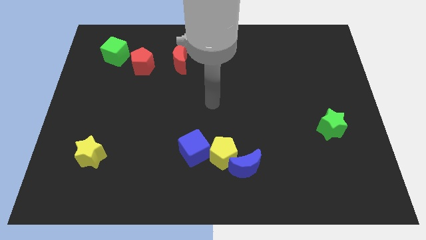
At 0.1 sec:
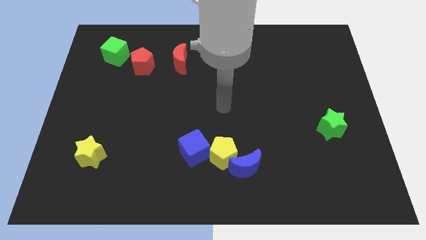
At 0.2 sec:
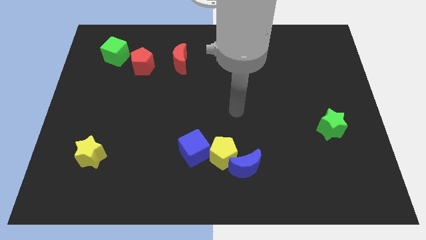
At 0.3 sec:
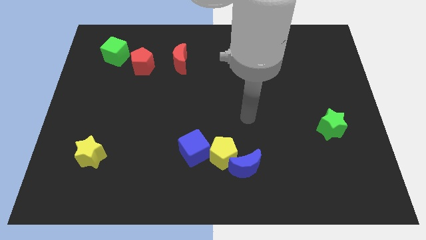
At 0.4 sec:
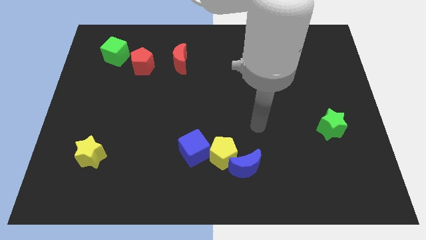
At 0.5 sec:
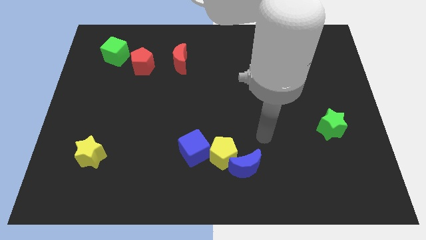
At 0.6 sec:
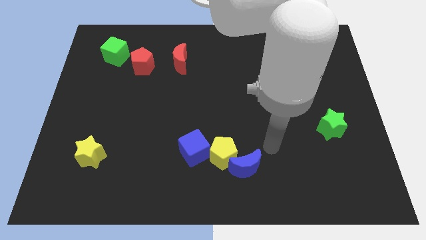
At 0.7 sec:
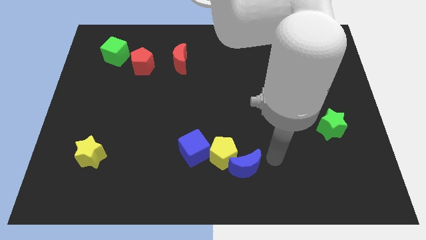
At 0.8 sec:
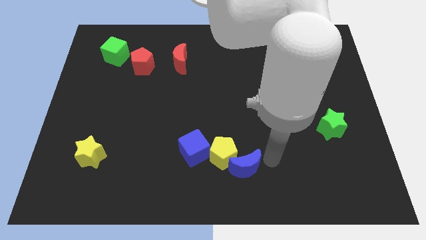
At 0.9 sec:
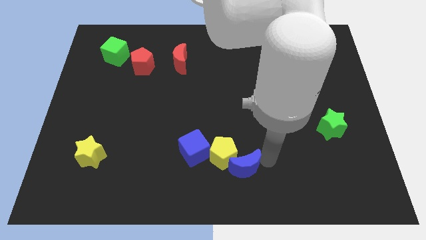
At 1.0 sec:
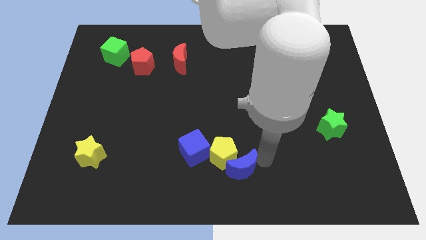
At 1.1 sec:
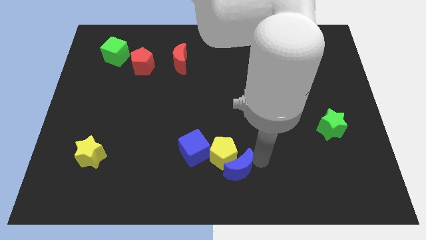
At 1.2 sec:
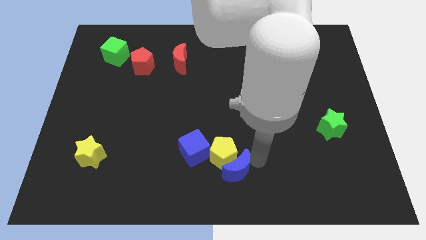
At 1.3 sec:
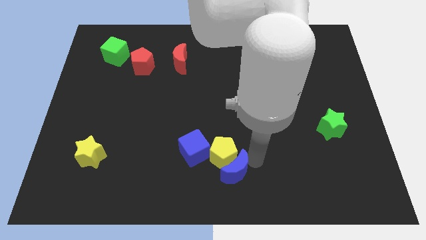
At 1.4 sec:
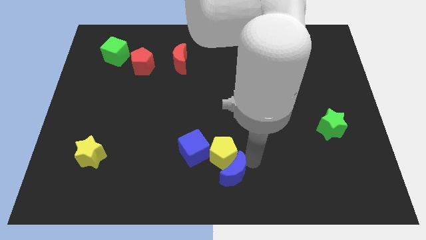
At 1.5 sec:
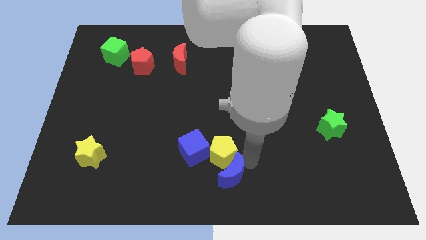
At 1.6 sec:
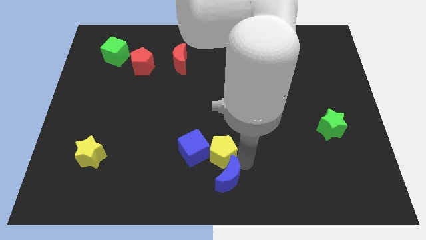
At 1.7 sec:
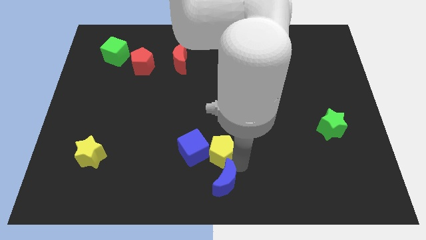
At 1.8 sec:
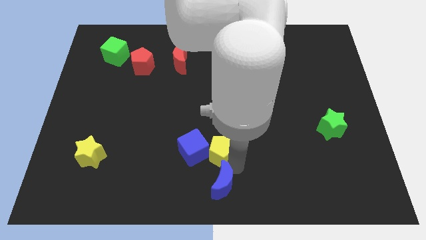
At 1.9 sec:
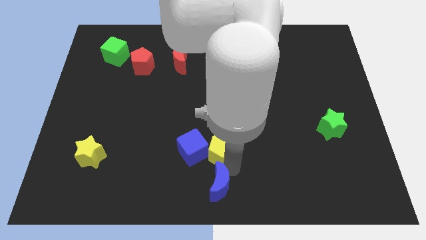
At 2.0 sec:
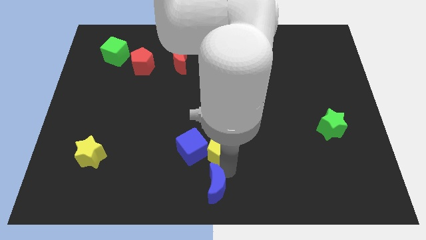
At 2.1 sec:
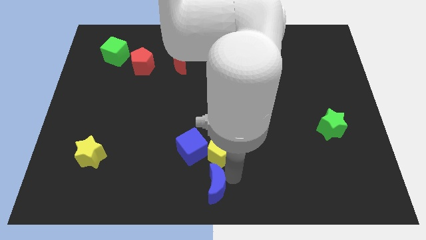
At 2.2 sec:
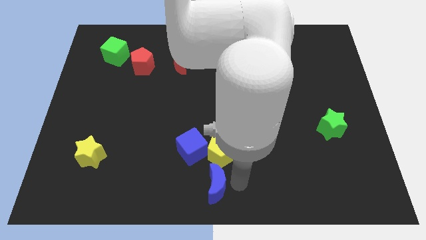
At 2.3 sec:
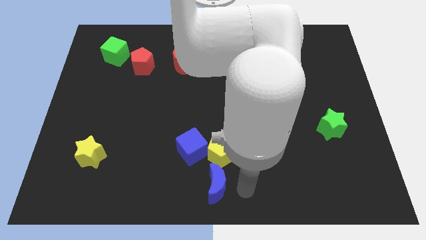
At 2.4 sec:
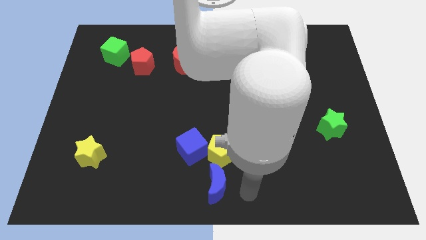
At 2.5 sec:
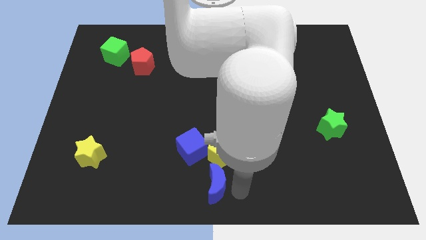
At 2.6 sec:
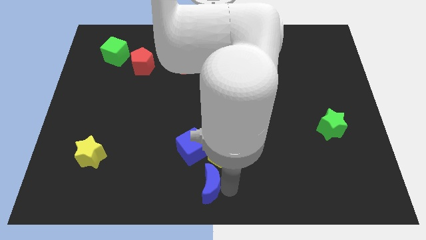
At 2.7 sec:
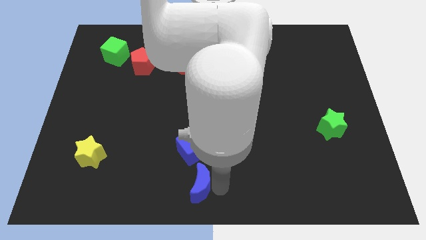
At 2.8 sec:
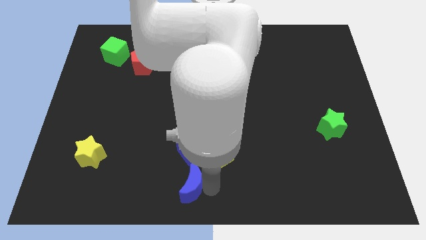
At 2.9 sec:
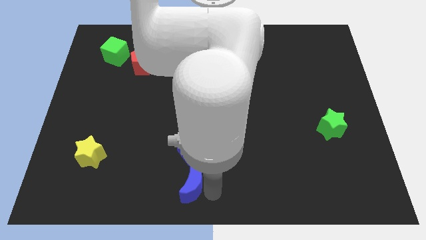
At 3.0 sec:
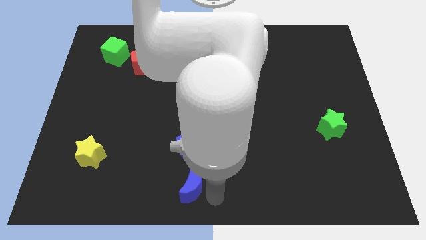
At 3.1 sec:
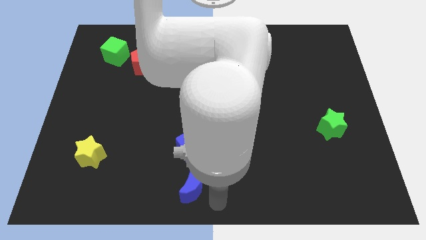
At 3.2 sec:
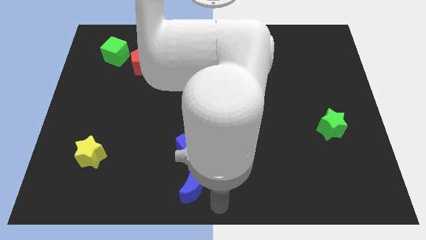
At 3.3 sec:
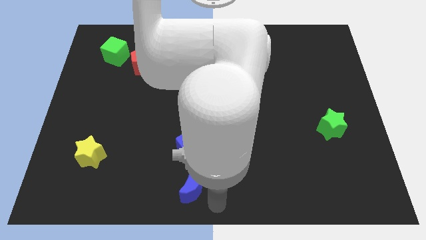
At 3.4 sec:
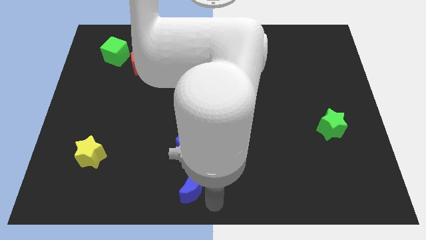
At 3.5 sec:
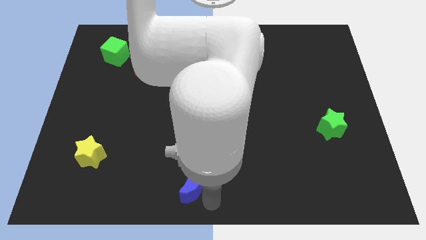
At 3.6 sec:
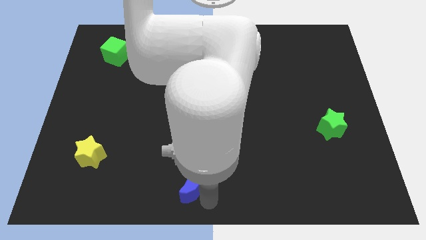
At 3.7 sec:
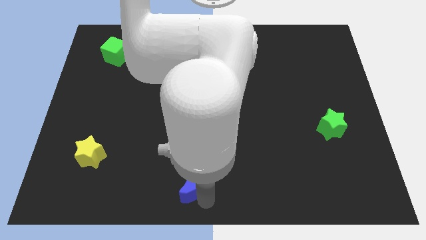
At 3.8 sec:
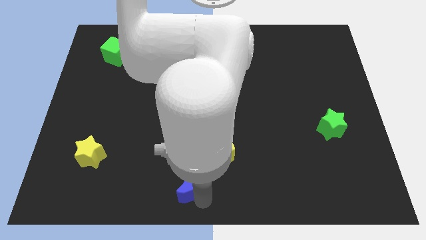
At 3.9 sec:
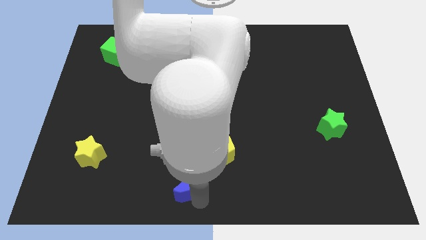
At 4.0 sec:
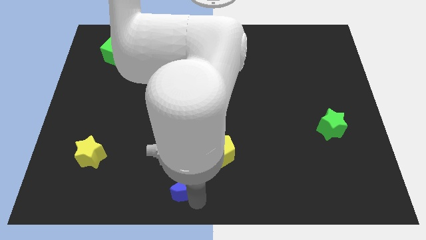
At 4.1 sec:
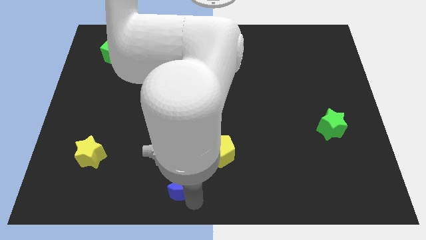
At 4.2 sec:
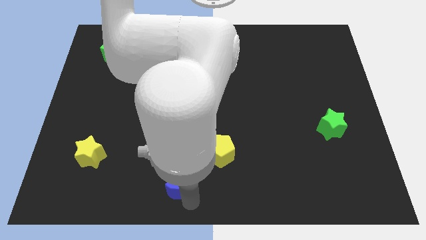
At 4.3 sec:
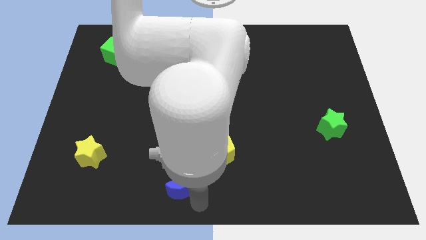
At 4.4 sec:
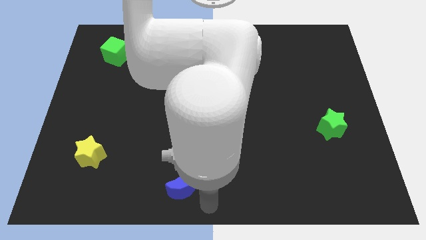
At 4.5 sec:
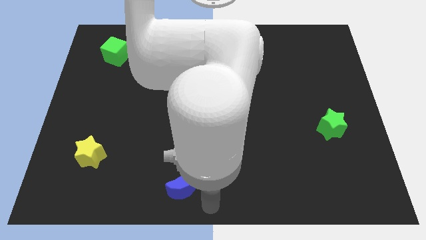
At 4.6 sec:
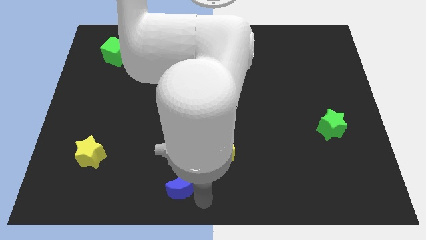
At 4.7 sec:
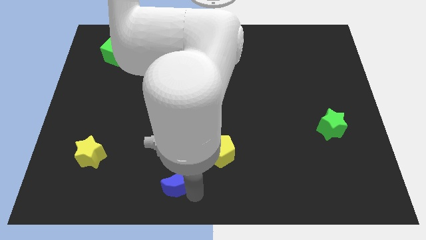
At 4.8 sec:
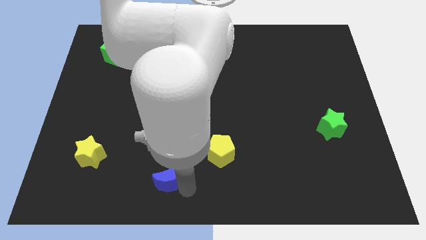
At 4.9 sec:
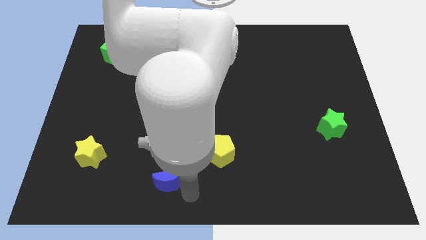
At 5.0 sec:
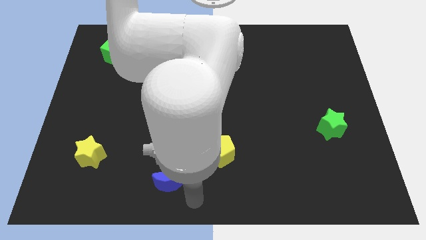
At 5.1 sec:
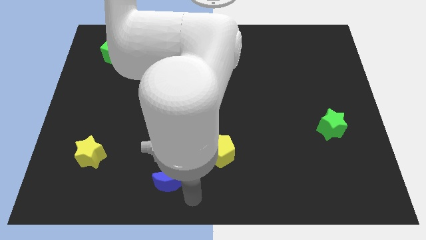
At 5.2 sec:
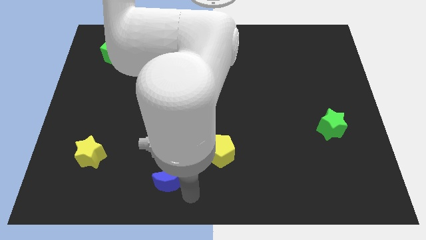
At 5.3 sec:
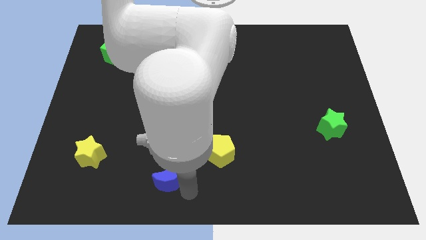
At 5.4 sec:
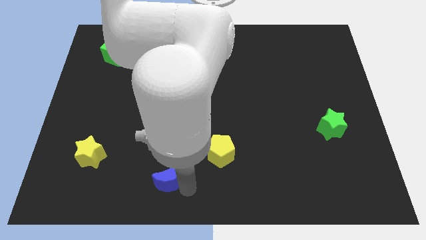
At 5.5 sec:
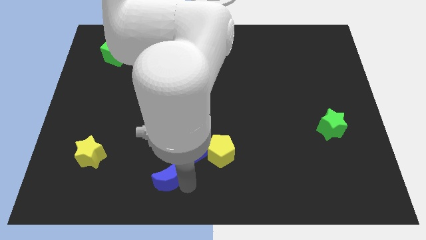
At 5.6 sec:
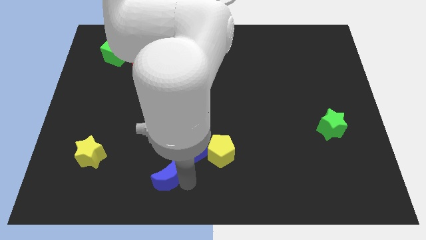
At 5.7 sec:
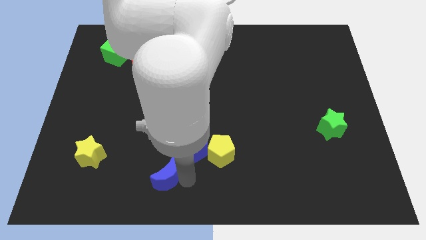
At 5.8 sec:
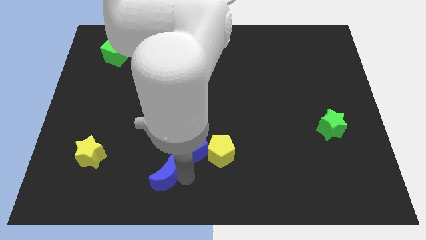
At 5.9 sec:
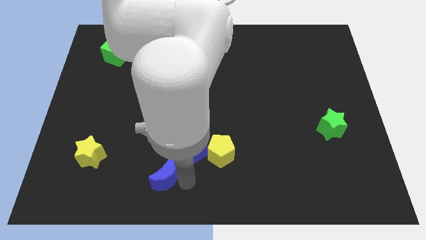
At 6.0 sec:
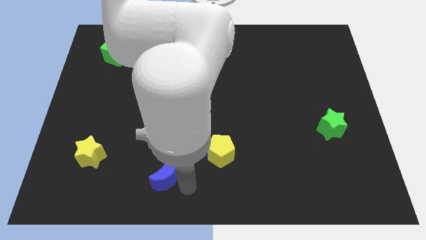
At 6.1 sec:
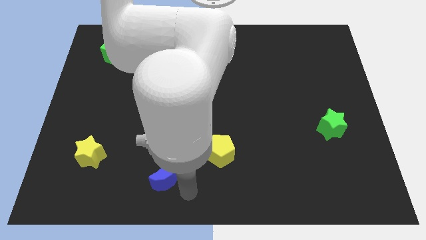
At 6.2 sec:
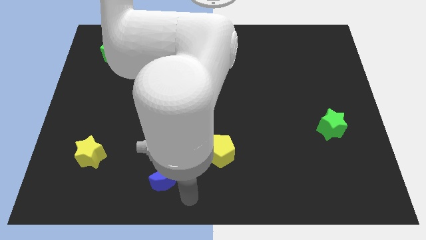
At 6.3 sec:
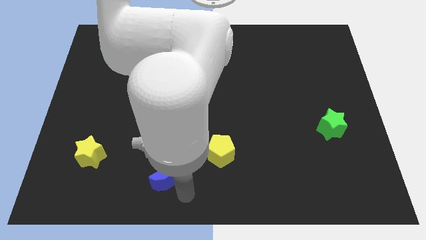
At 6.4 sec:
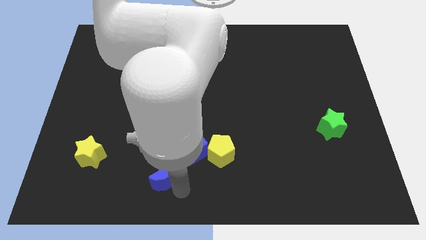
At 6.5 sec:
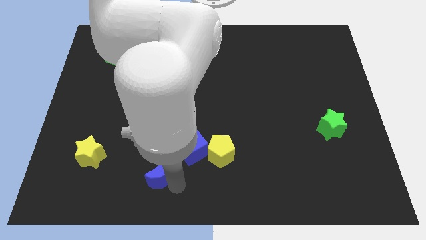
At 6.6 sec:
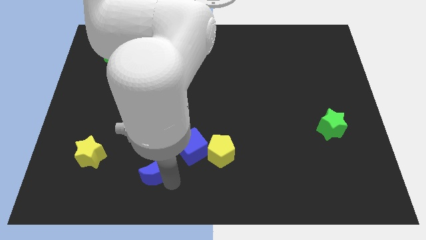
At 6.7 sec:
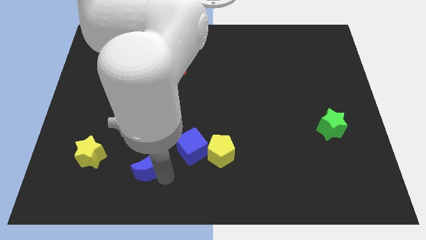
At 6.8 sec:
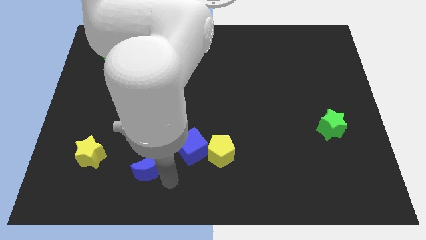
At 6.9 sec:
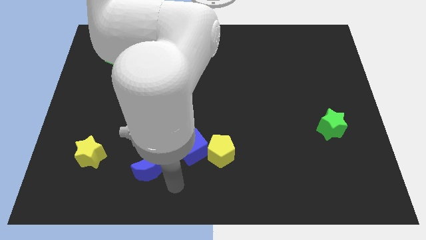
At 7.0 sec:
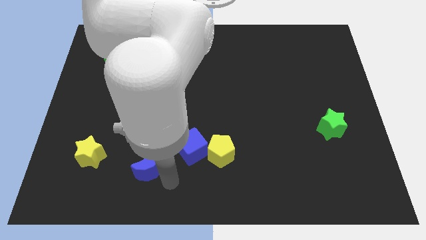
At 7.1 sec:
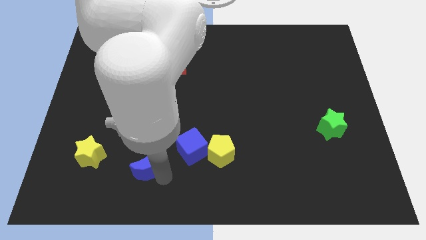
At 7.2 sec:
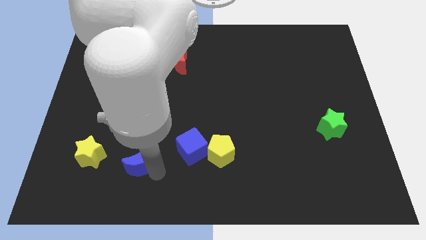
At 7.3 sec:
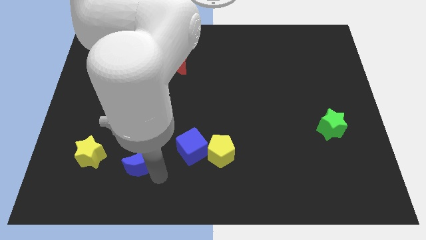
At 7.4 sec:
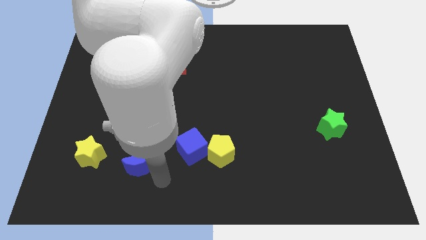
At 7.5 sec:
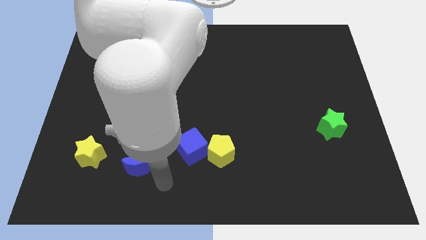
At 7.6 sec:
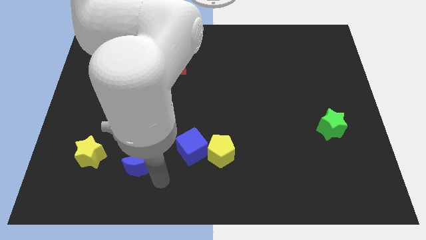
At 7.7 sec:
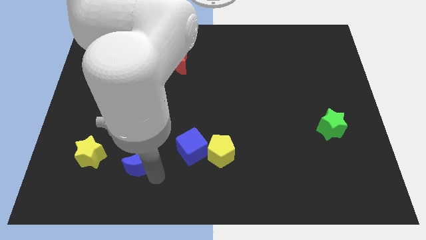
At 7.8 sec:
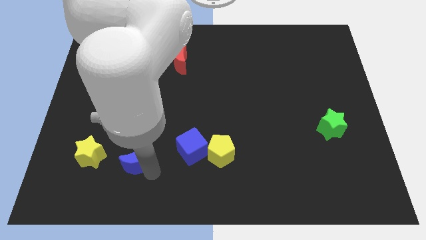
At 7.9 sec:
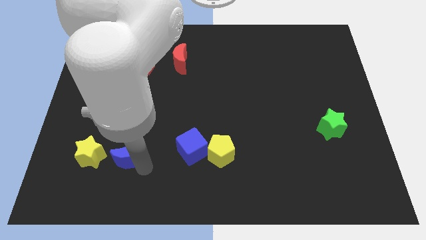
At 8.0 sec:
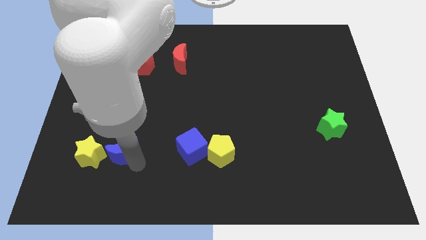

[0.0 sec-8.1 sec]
push the blue moon diagonally up and to the right of the yellow star

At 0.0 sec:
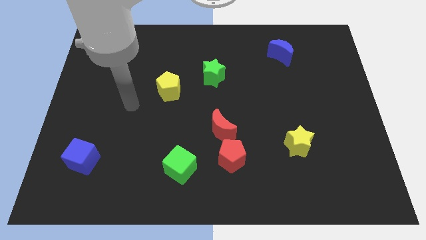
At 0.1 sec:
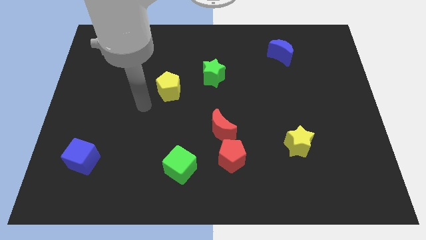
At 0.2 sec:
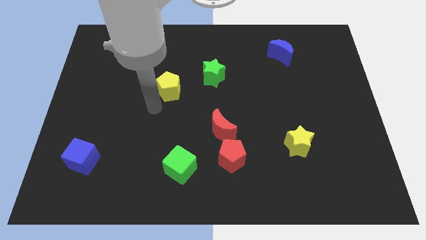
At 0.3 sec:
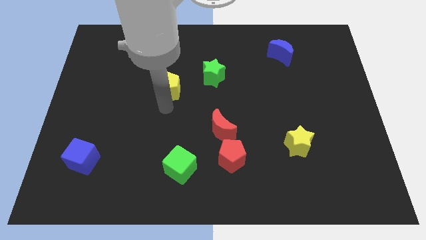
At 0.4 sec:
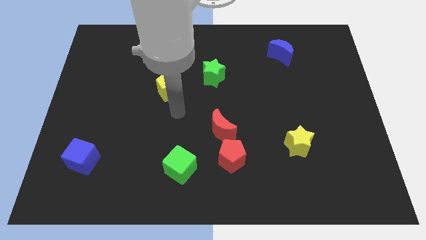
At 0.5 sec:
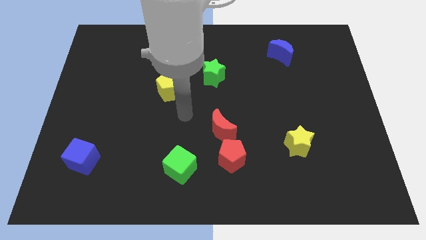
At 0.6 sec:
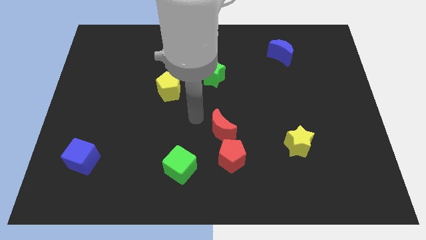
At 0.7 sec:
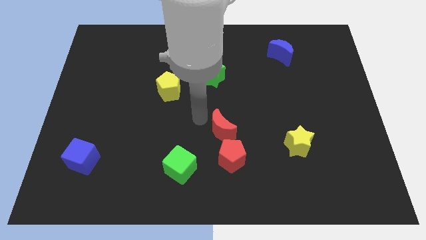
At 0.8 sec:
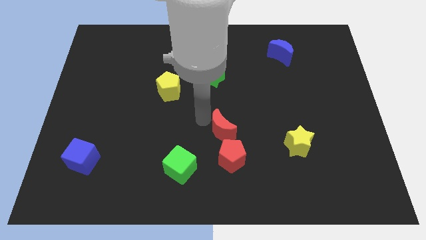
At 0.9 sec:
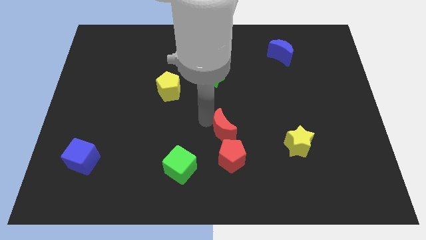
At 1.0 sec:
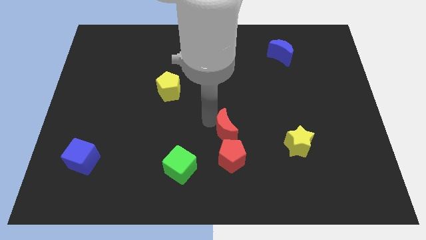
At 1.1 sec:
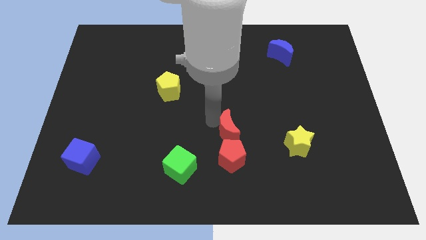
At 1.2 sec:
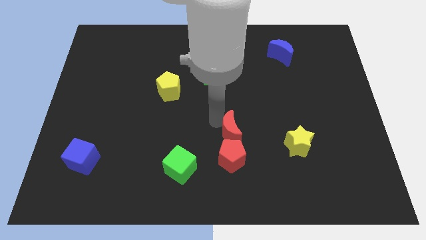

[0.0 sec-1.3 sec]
push the red moon just left of the yellow star
